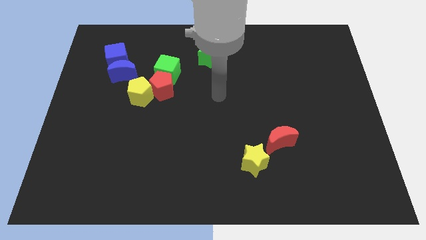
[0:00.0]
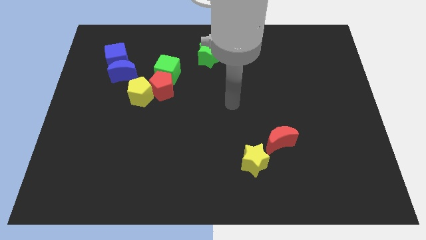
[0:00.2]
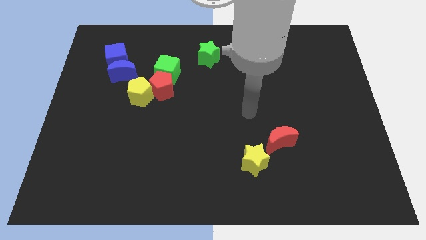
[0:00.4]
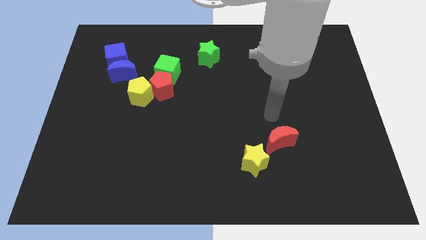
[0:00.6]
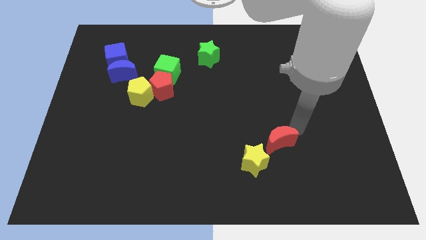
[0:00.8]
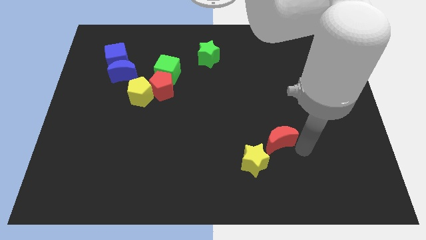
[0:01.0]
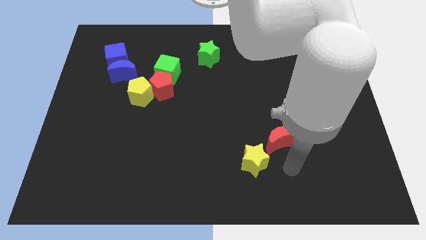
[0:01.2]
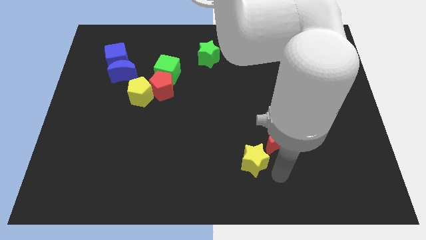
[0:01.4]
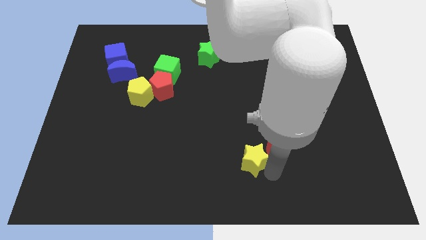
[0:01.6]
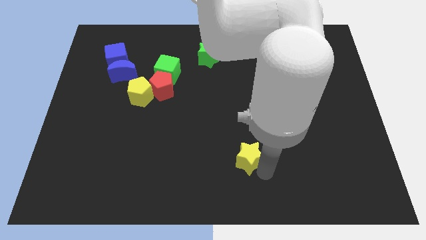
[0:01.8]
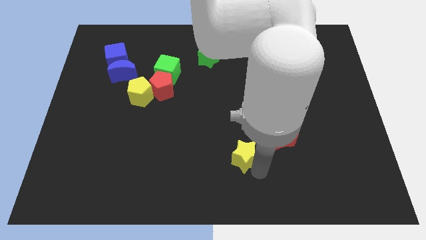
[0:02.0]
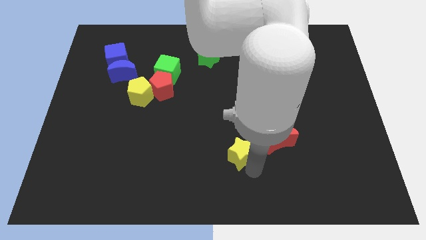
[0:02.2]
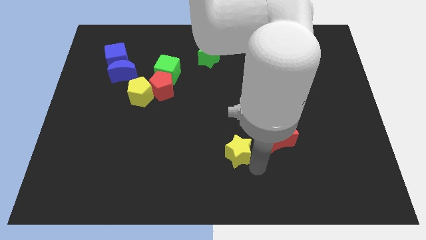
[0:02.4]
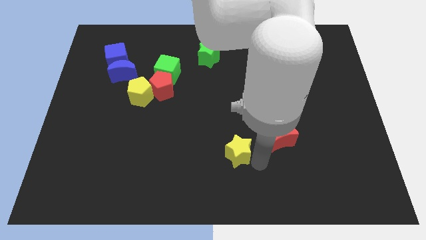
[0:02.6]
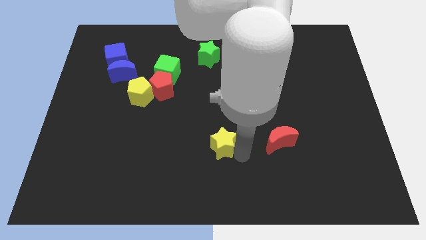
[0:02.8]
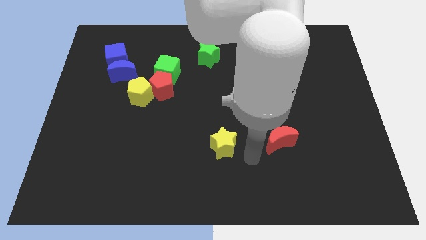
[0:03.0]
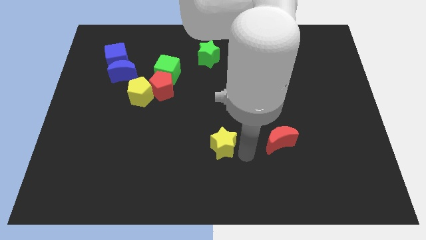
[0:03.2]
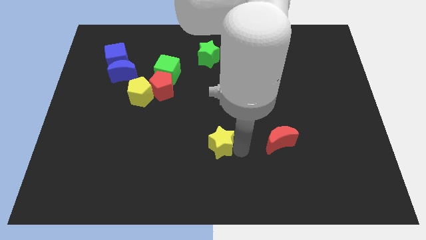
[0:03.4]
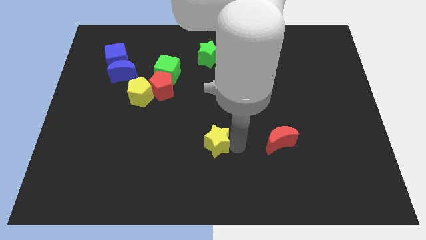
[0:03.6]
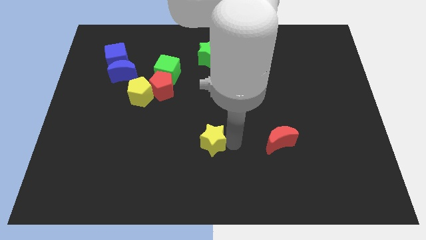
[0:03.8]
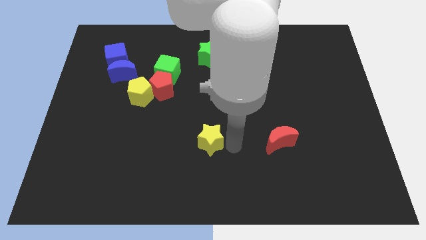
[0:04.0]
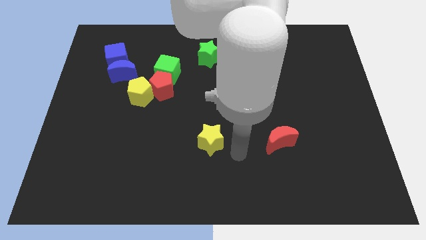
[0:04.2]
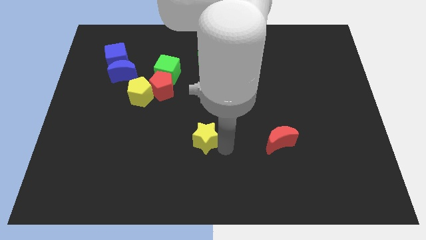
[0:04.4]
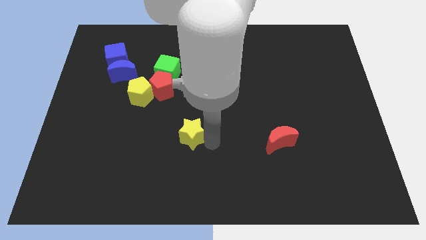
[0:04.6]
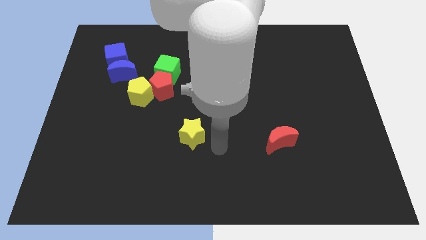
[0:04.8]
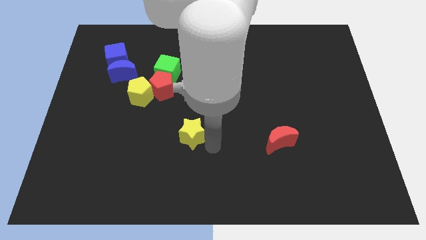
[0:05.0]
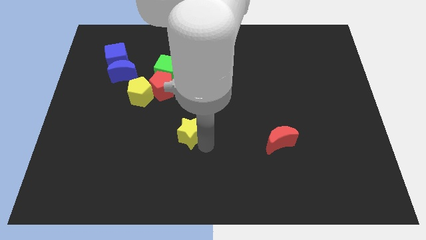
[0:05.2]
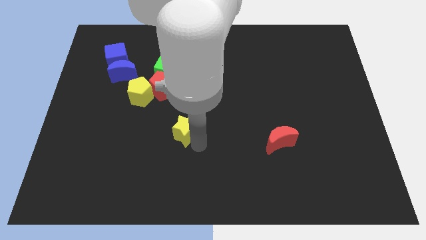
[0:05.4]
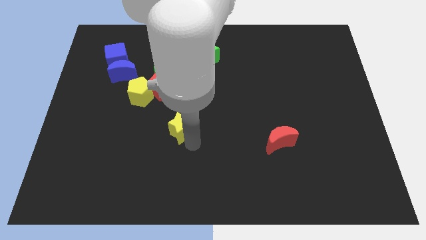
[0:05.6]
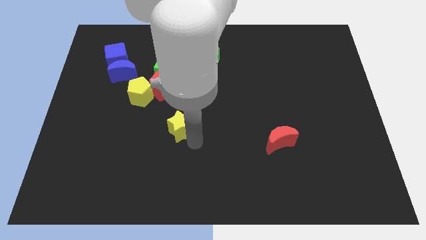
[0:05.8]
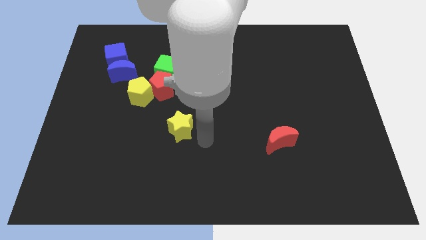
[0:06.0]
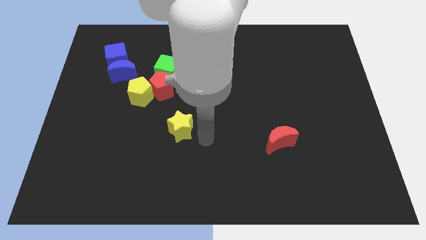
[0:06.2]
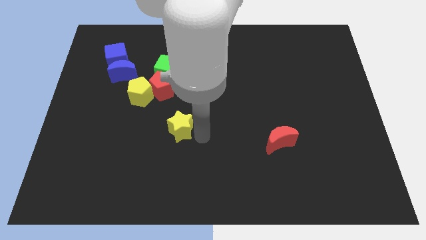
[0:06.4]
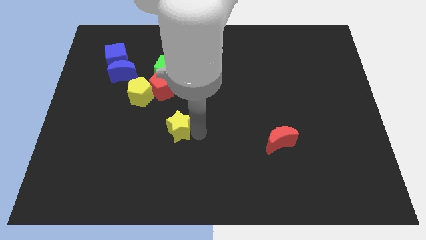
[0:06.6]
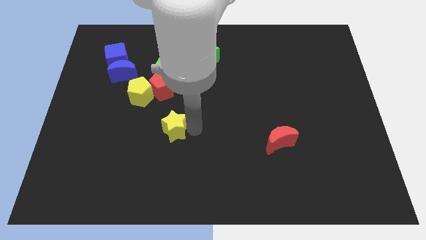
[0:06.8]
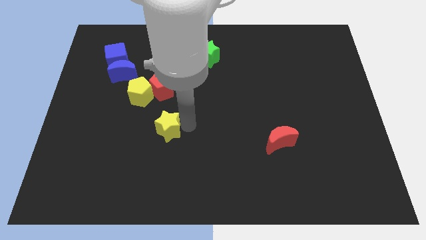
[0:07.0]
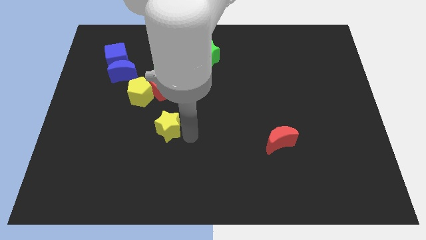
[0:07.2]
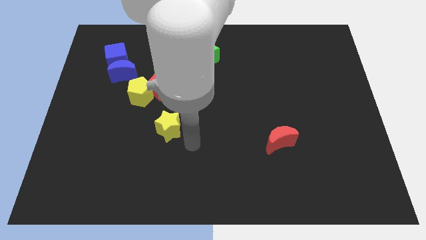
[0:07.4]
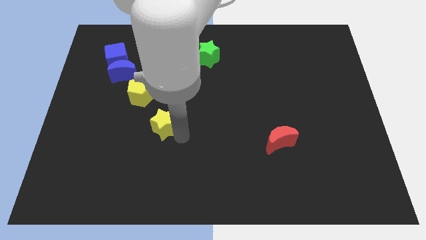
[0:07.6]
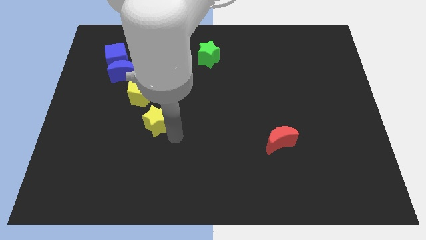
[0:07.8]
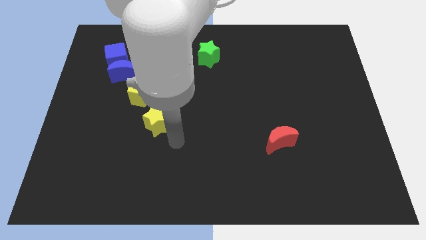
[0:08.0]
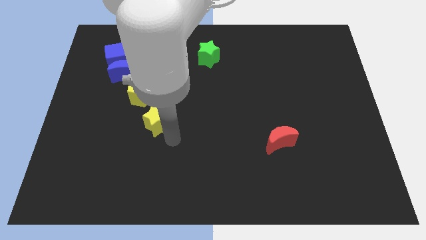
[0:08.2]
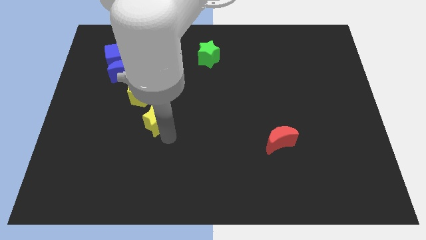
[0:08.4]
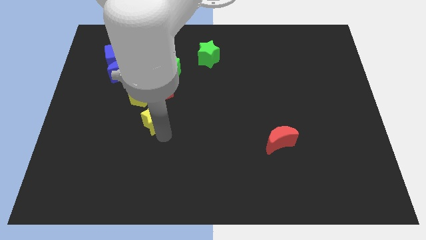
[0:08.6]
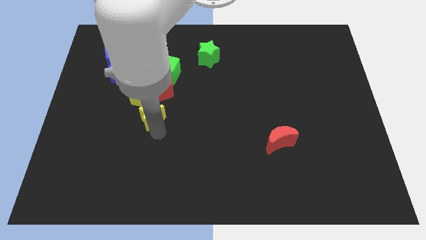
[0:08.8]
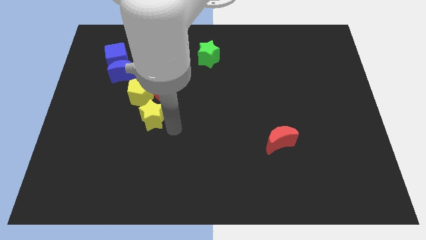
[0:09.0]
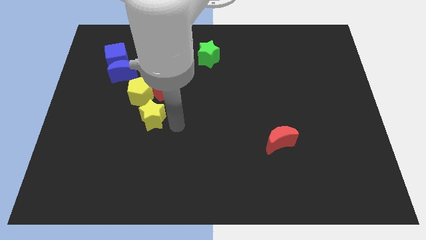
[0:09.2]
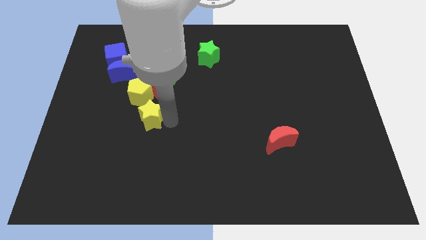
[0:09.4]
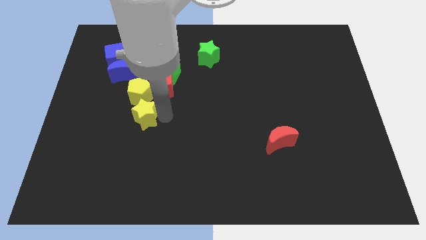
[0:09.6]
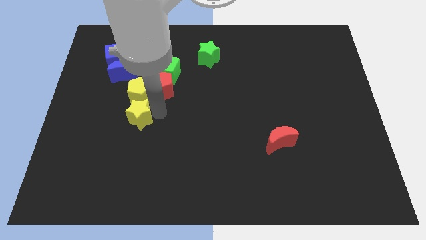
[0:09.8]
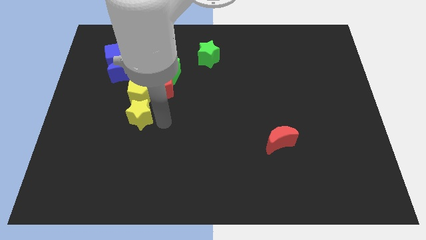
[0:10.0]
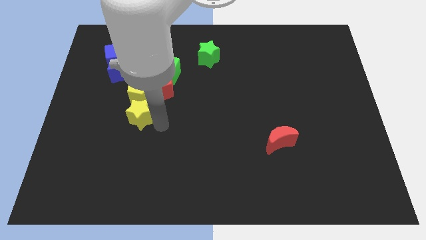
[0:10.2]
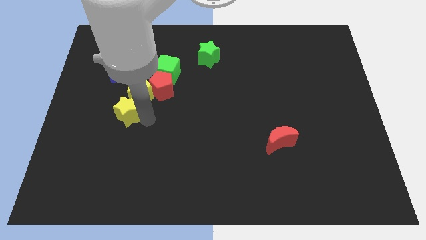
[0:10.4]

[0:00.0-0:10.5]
move the yellow star below the blue moon

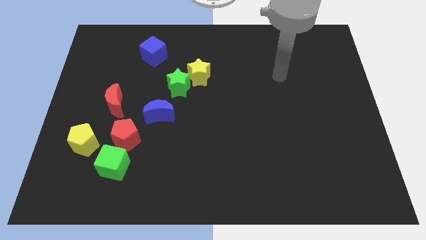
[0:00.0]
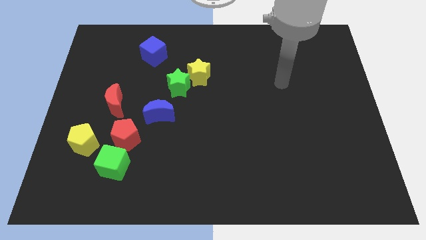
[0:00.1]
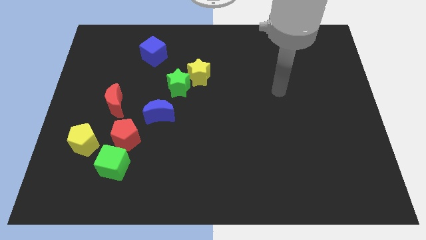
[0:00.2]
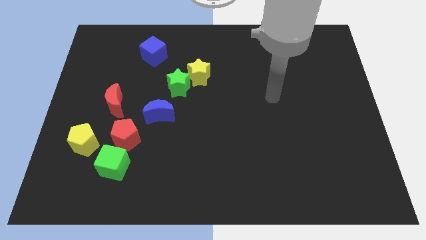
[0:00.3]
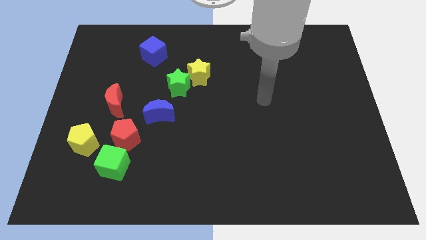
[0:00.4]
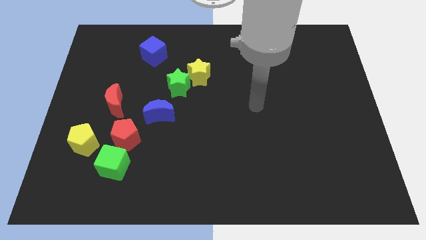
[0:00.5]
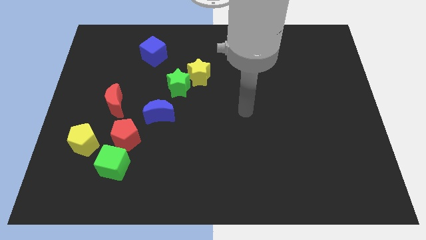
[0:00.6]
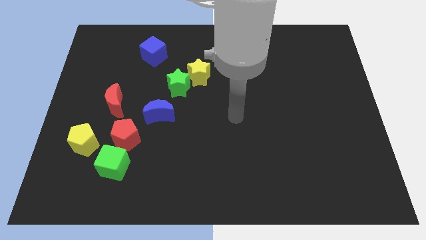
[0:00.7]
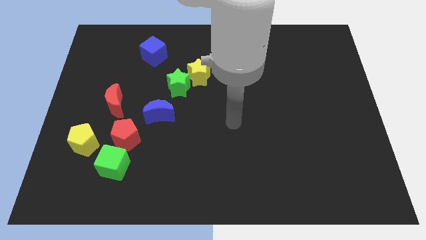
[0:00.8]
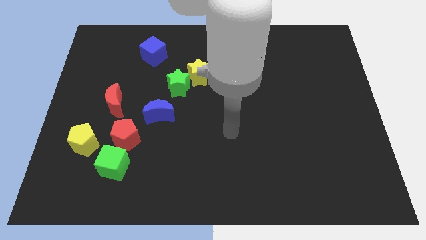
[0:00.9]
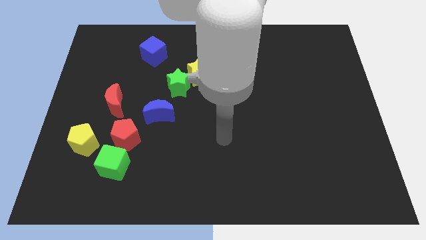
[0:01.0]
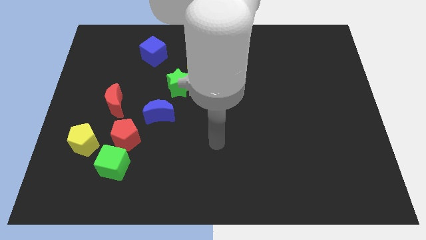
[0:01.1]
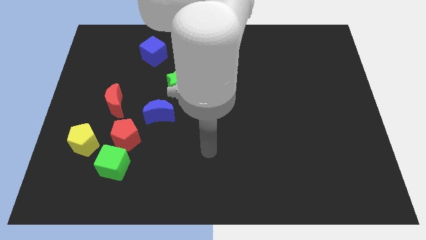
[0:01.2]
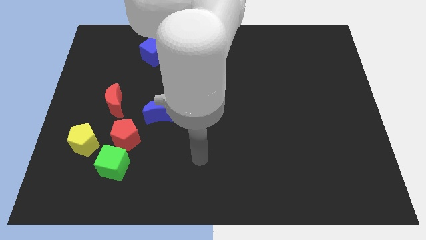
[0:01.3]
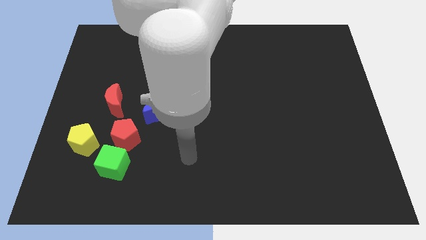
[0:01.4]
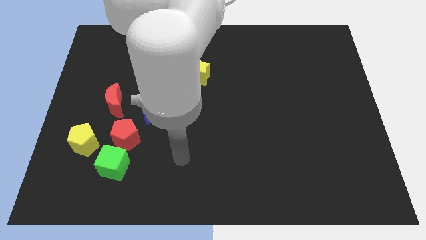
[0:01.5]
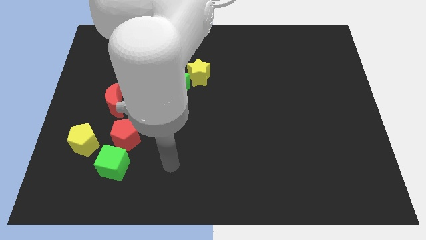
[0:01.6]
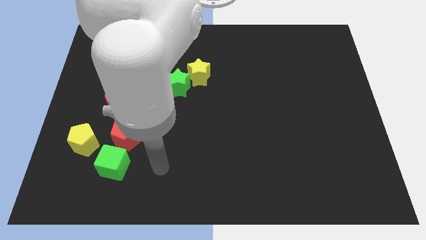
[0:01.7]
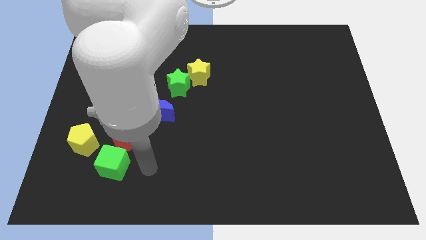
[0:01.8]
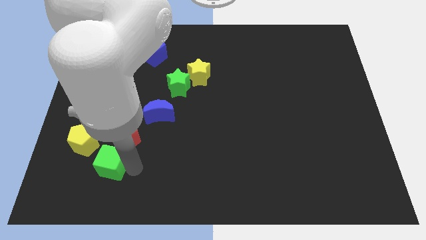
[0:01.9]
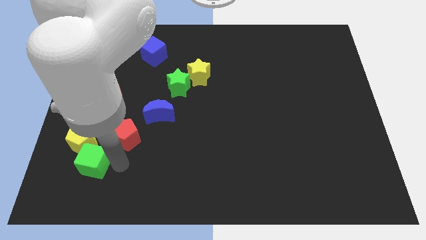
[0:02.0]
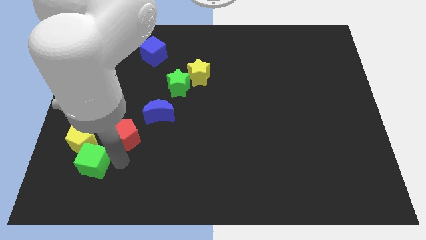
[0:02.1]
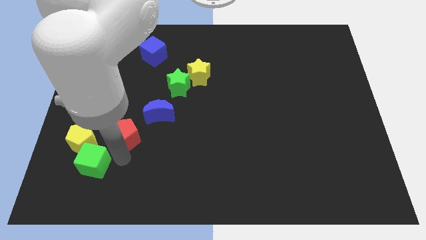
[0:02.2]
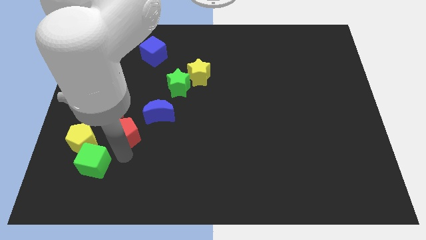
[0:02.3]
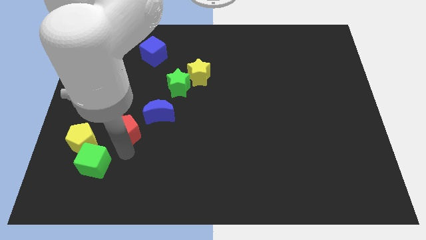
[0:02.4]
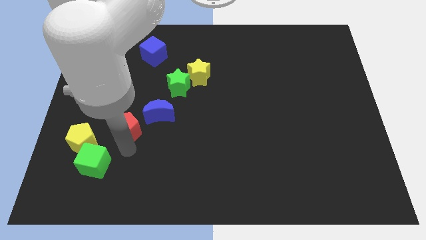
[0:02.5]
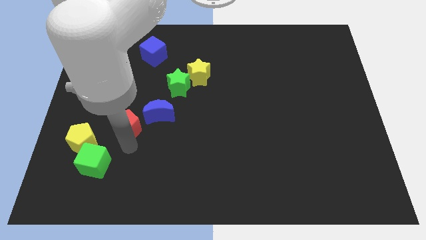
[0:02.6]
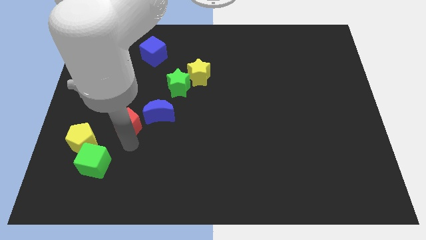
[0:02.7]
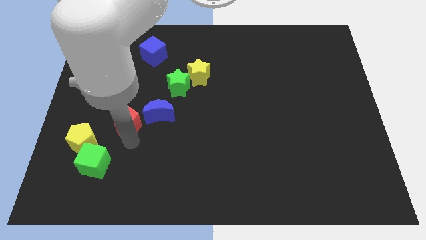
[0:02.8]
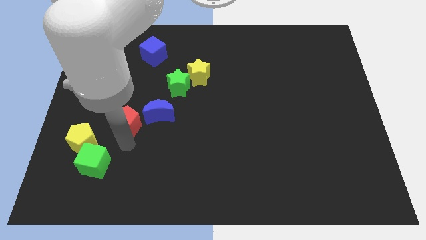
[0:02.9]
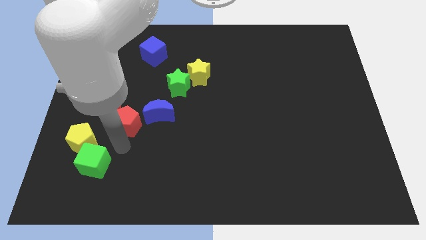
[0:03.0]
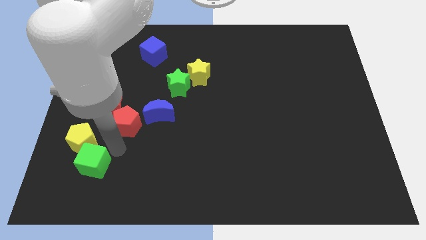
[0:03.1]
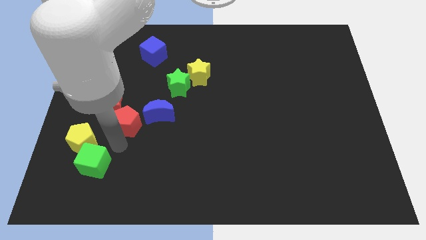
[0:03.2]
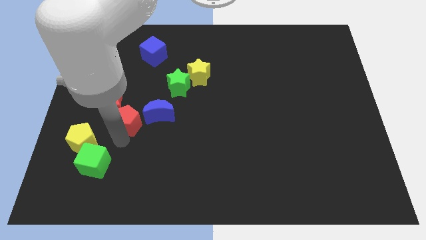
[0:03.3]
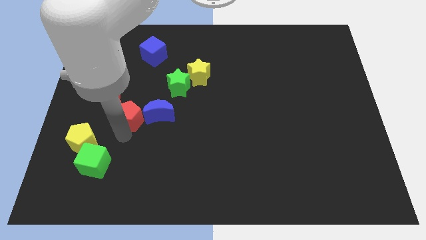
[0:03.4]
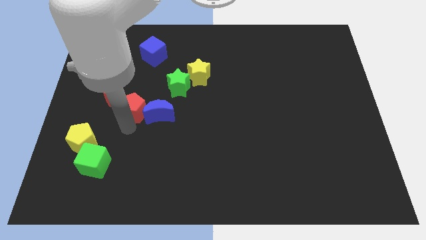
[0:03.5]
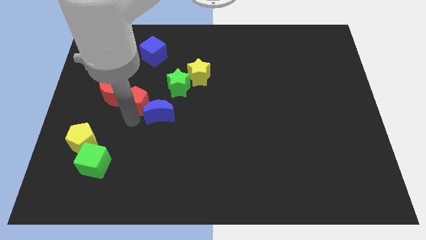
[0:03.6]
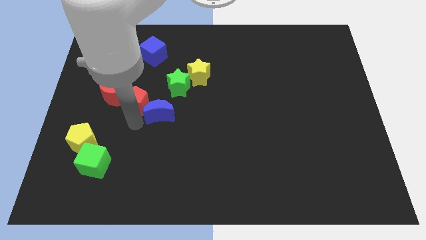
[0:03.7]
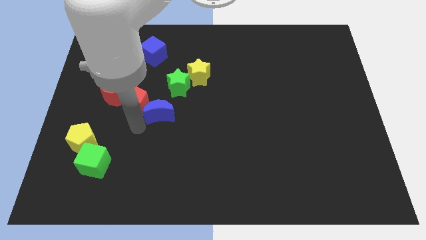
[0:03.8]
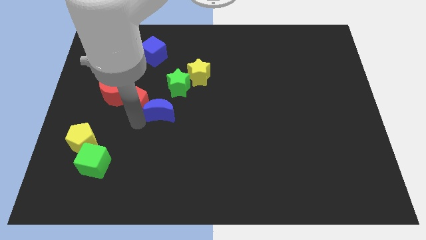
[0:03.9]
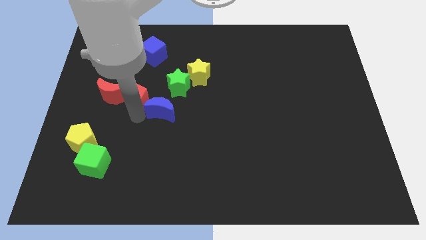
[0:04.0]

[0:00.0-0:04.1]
push the red pentagon left of the green star
